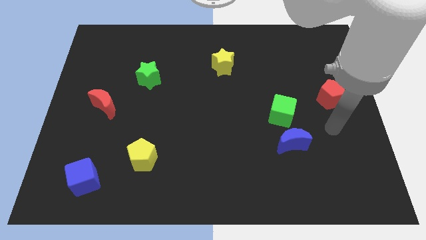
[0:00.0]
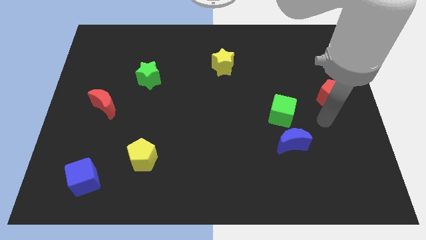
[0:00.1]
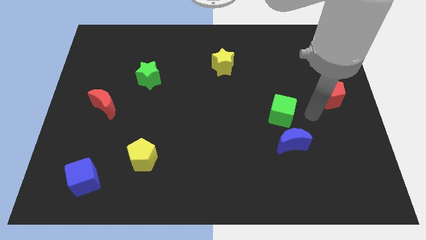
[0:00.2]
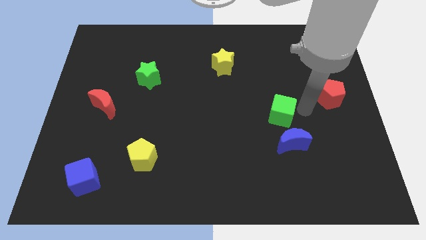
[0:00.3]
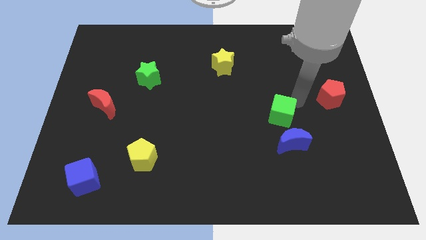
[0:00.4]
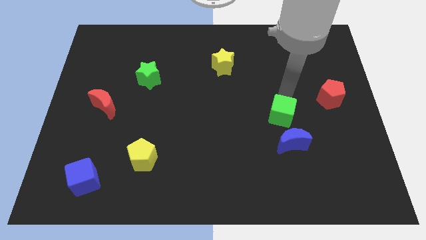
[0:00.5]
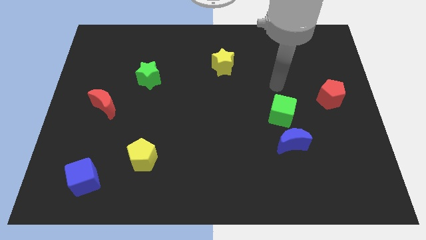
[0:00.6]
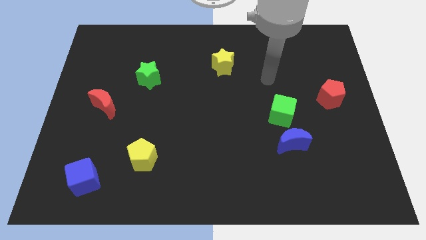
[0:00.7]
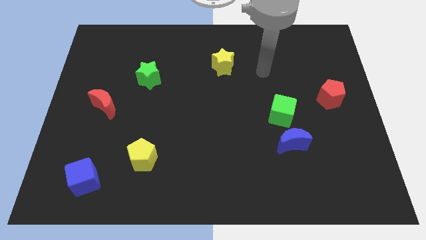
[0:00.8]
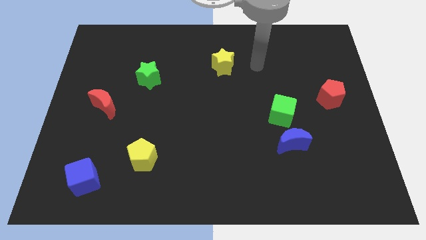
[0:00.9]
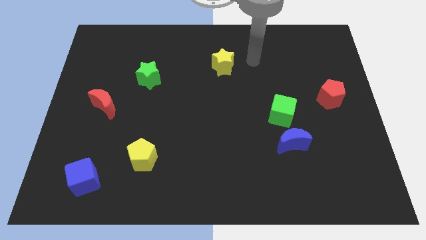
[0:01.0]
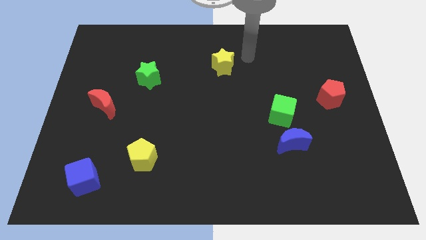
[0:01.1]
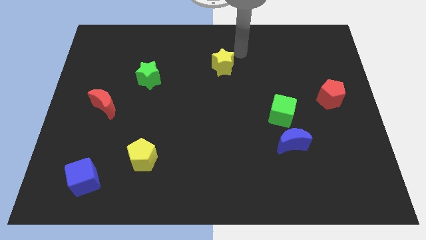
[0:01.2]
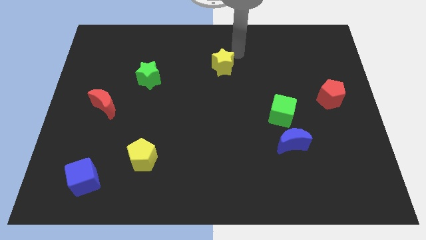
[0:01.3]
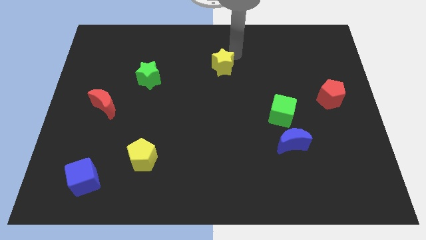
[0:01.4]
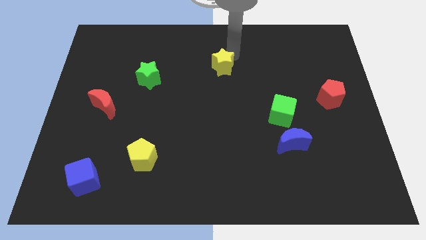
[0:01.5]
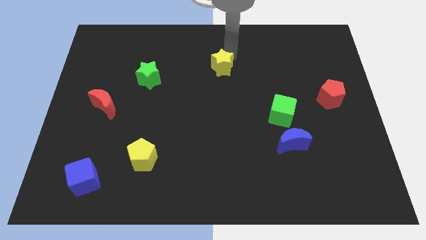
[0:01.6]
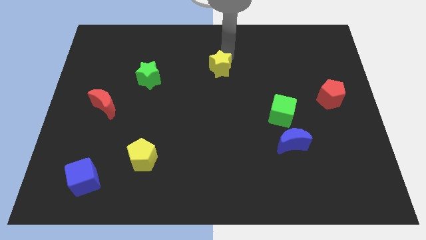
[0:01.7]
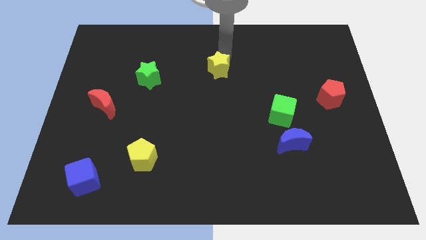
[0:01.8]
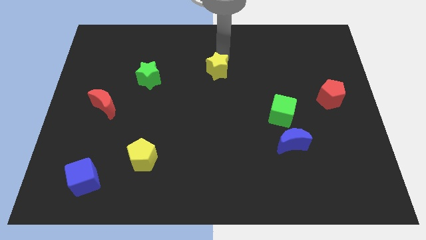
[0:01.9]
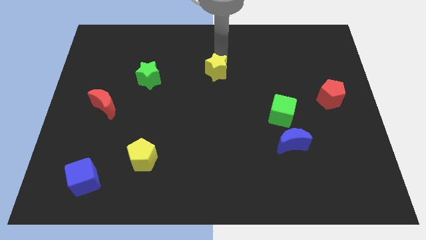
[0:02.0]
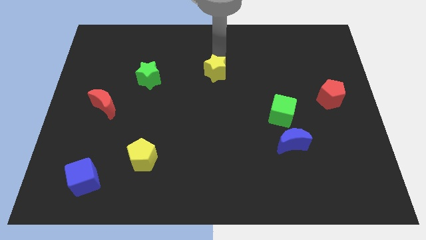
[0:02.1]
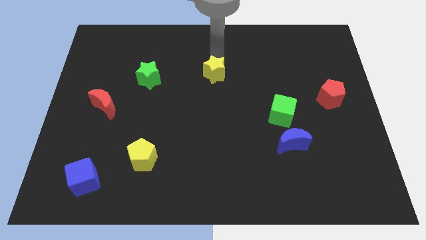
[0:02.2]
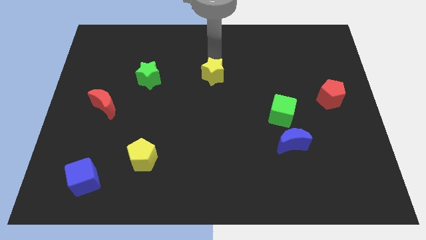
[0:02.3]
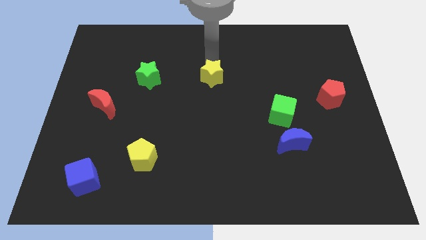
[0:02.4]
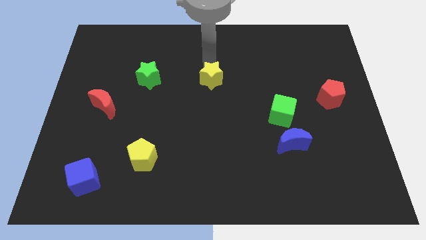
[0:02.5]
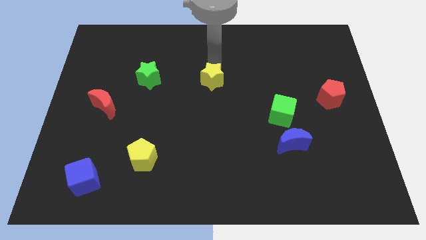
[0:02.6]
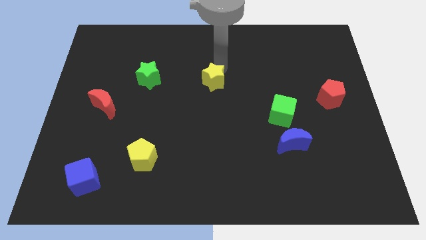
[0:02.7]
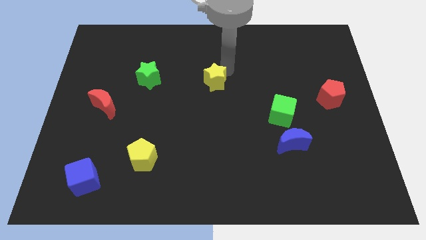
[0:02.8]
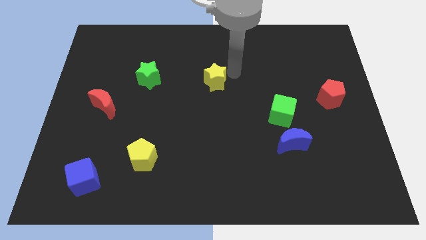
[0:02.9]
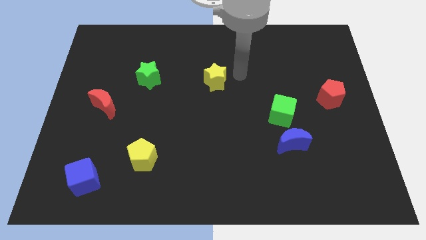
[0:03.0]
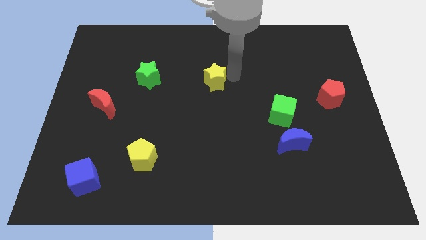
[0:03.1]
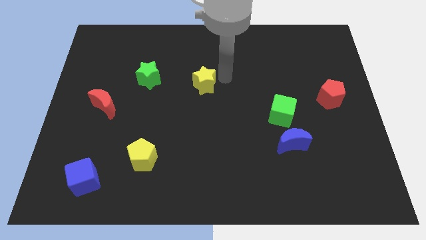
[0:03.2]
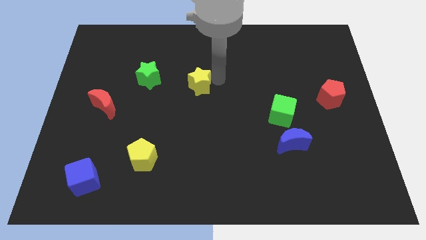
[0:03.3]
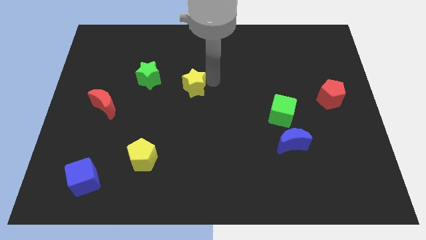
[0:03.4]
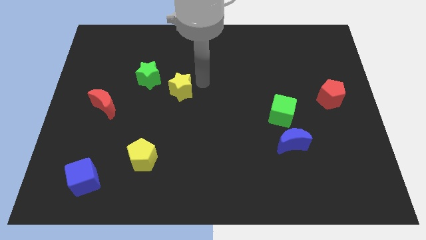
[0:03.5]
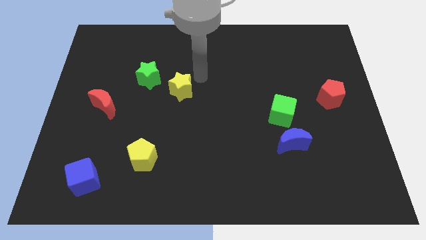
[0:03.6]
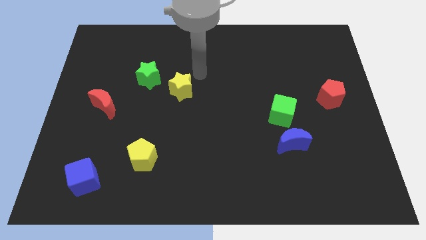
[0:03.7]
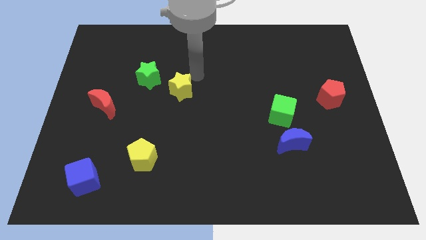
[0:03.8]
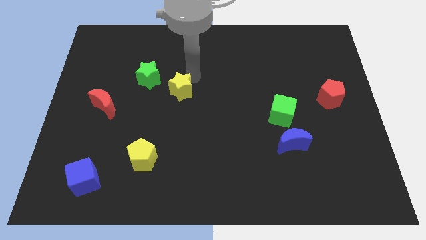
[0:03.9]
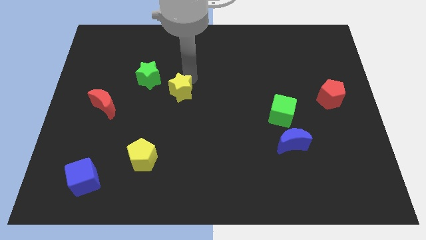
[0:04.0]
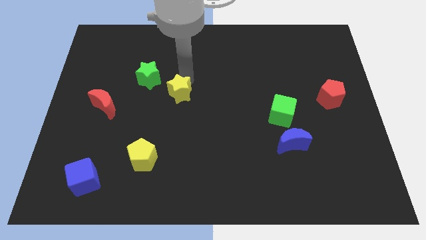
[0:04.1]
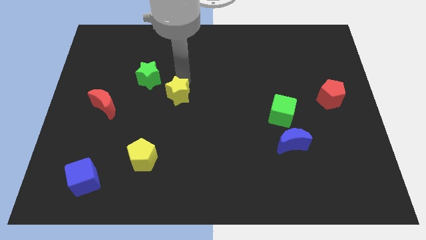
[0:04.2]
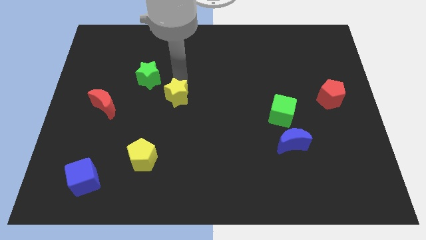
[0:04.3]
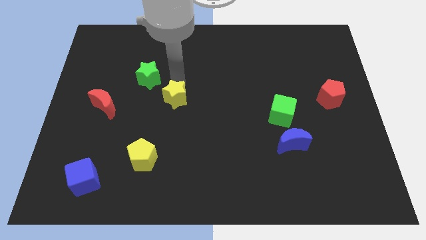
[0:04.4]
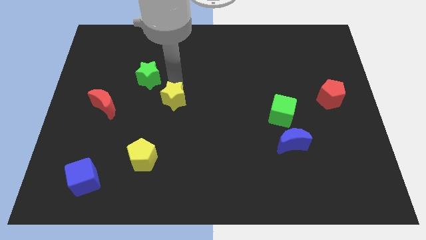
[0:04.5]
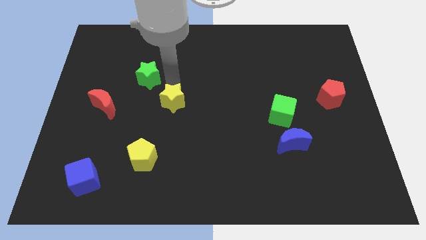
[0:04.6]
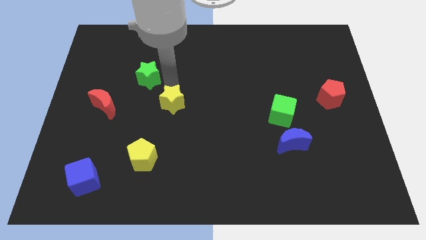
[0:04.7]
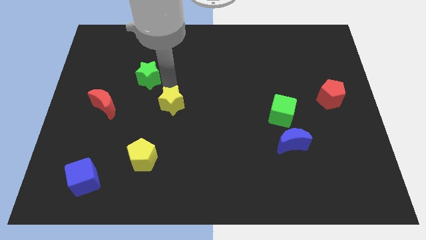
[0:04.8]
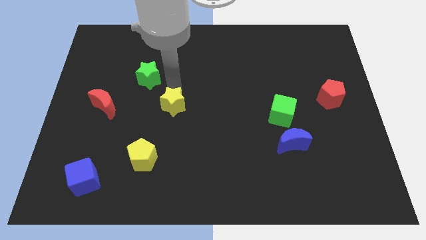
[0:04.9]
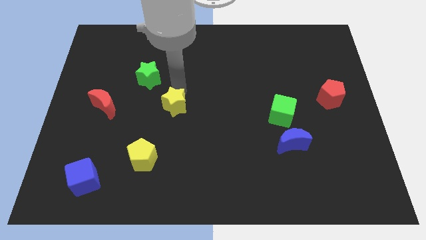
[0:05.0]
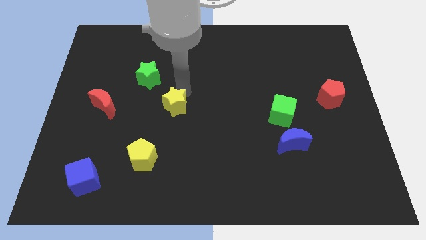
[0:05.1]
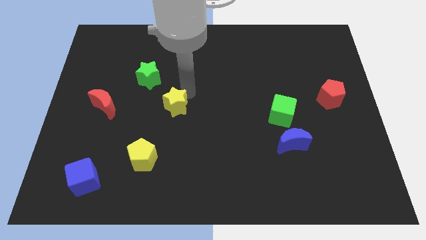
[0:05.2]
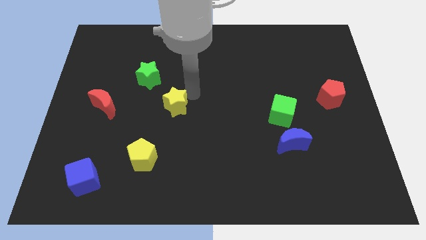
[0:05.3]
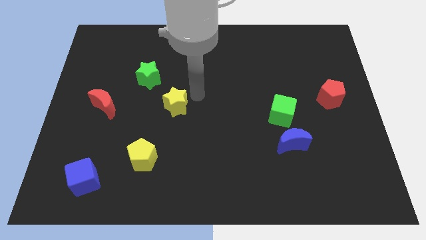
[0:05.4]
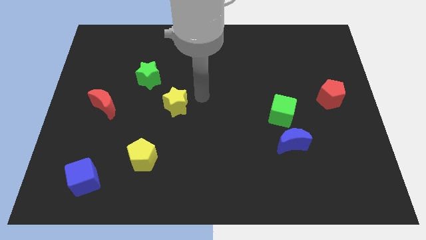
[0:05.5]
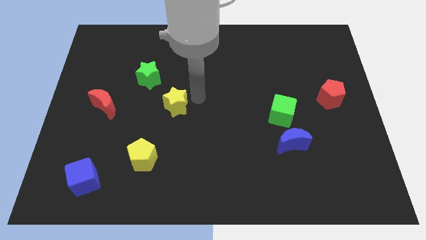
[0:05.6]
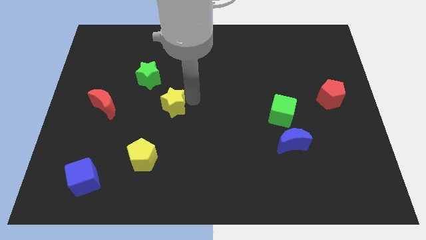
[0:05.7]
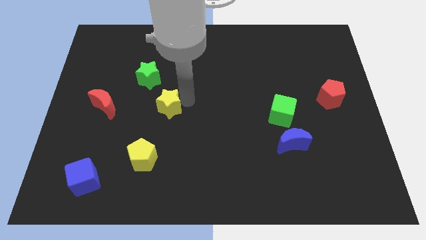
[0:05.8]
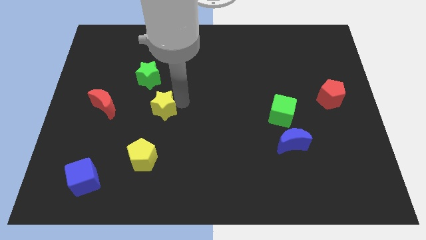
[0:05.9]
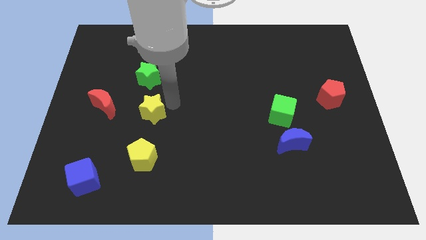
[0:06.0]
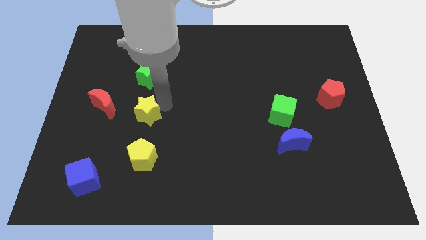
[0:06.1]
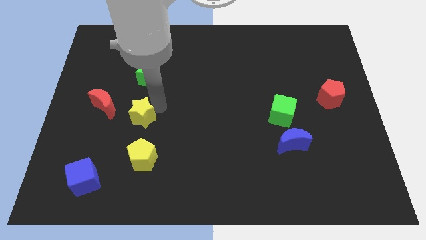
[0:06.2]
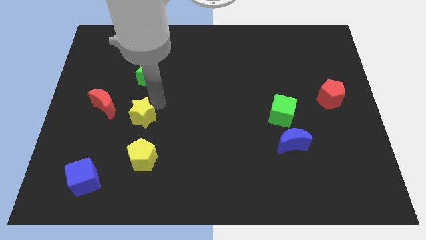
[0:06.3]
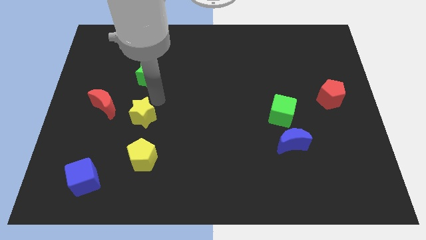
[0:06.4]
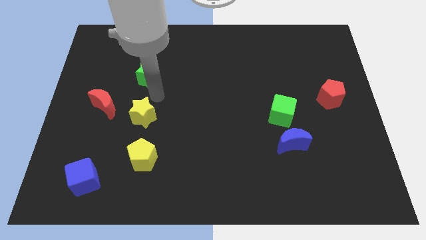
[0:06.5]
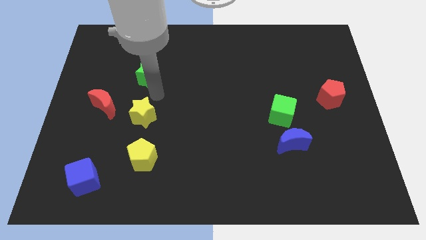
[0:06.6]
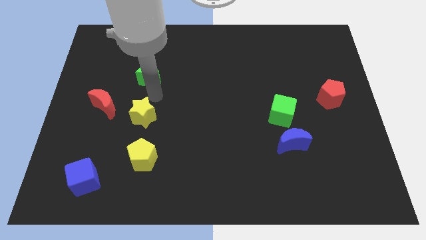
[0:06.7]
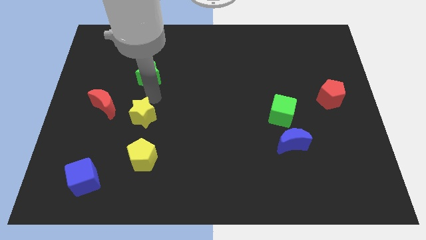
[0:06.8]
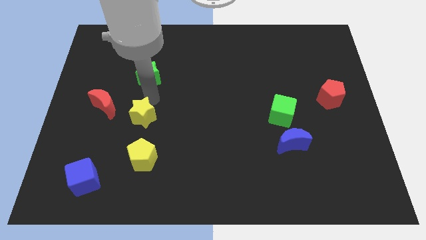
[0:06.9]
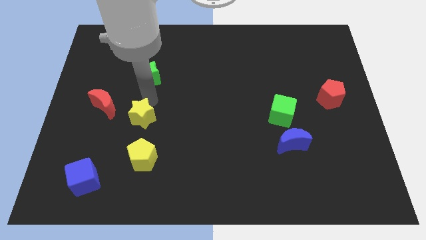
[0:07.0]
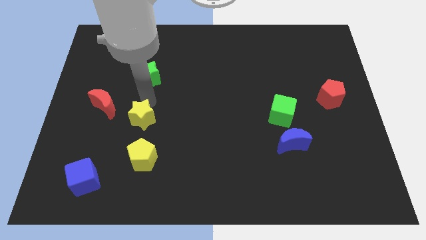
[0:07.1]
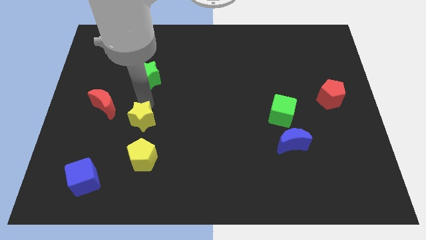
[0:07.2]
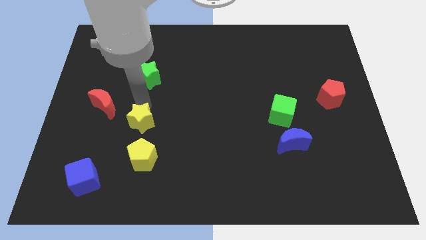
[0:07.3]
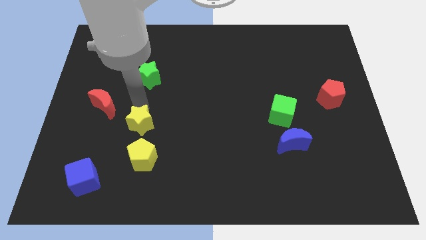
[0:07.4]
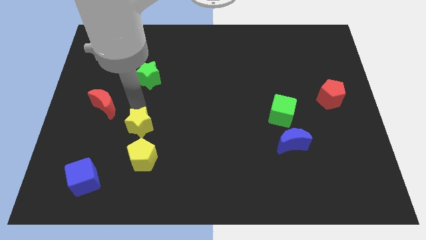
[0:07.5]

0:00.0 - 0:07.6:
move the yellow star to the top left side of the yellow pentagon
